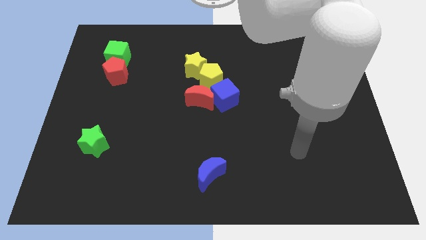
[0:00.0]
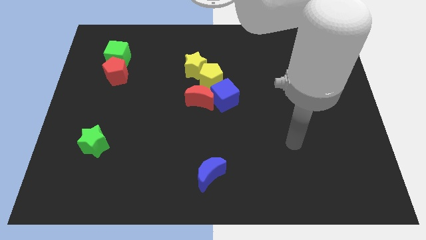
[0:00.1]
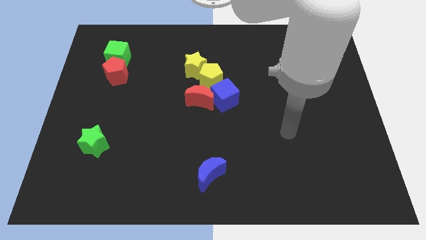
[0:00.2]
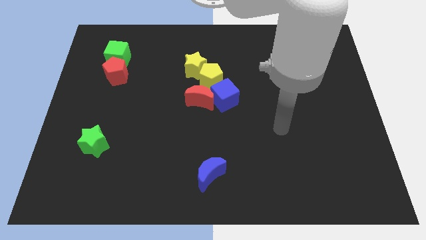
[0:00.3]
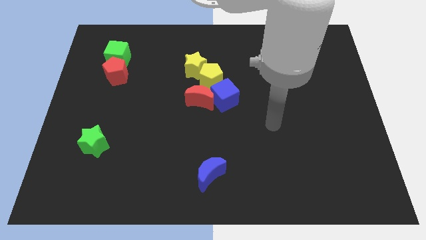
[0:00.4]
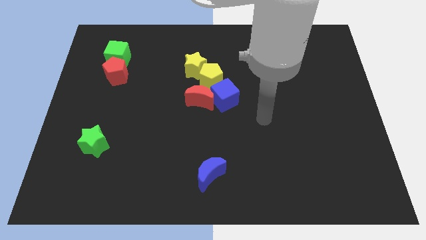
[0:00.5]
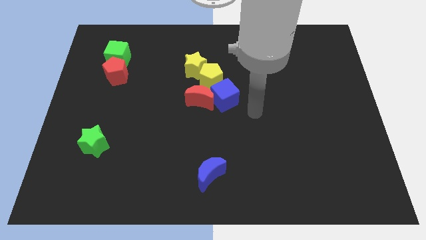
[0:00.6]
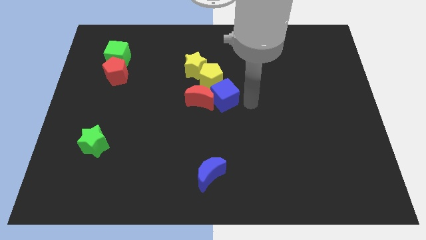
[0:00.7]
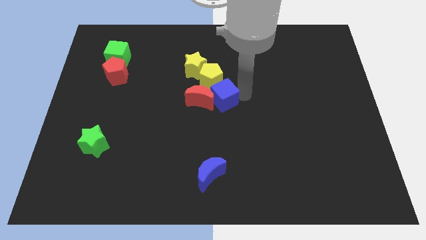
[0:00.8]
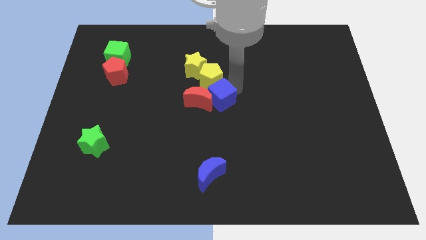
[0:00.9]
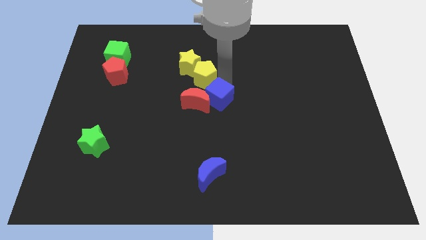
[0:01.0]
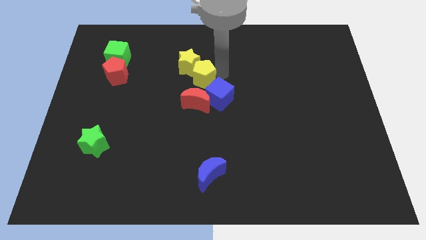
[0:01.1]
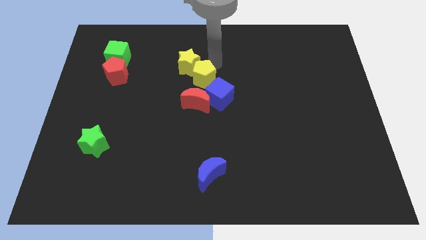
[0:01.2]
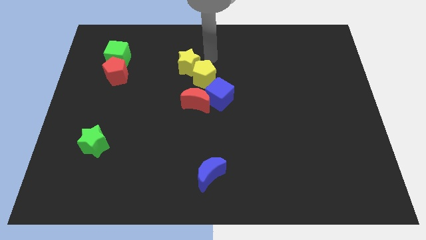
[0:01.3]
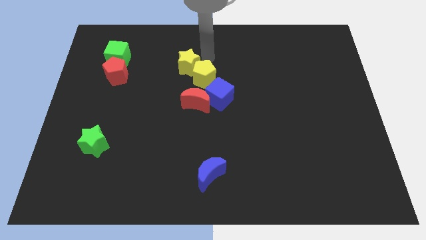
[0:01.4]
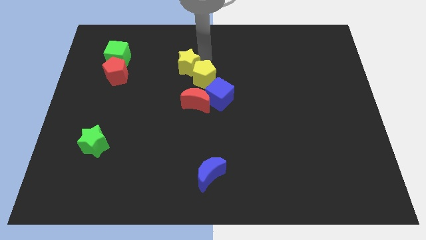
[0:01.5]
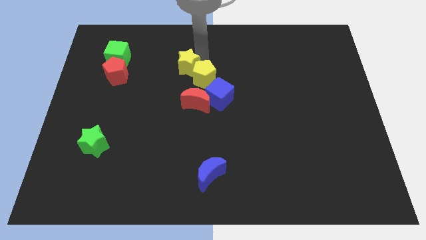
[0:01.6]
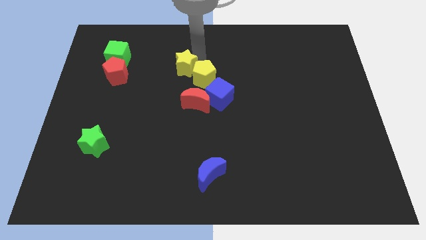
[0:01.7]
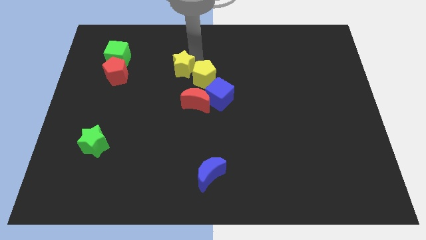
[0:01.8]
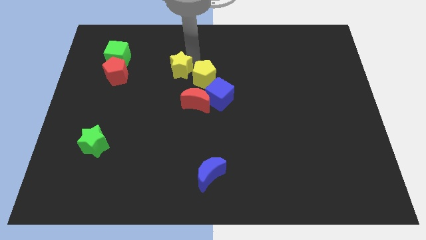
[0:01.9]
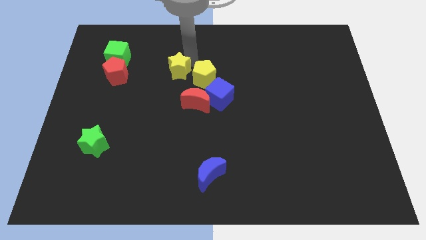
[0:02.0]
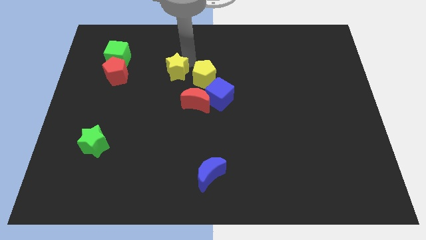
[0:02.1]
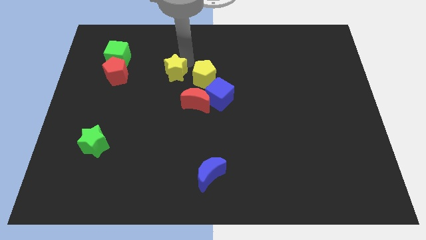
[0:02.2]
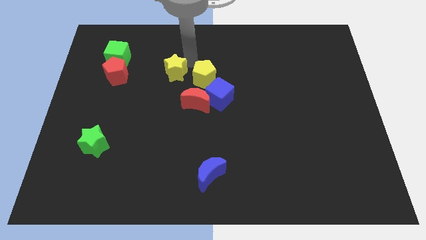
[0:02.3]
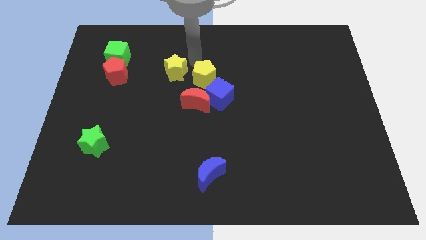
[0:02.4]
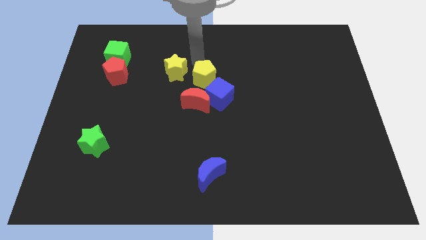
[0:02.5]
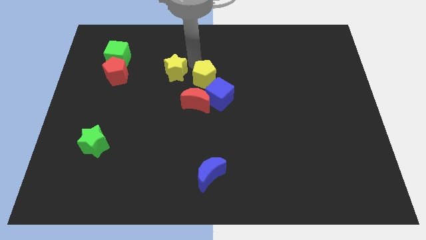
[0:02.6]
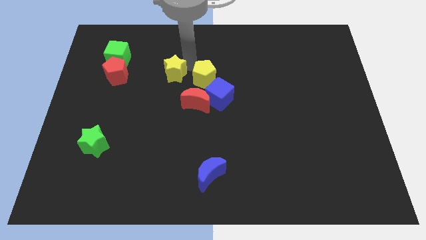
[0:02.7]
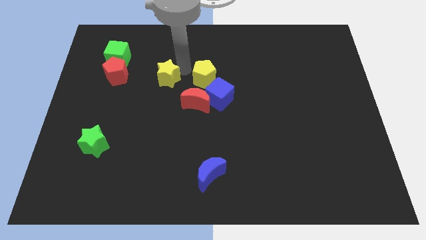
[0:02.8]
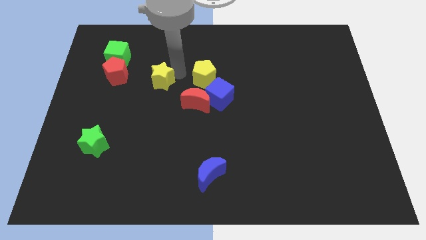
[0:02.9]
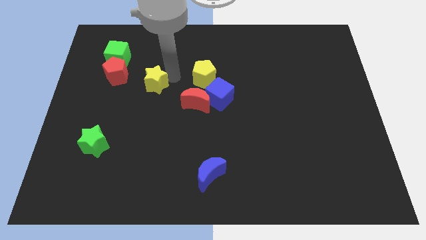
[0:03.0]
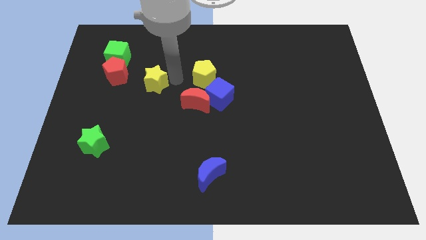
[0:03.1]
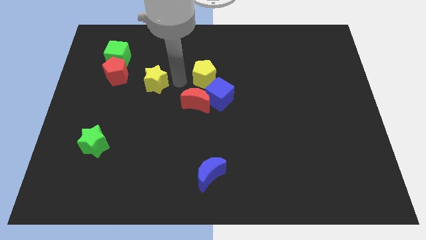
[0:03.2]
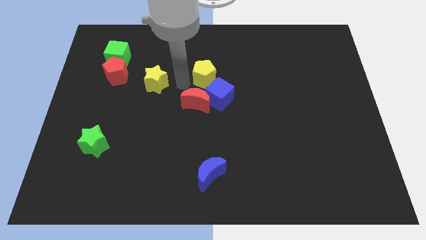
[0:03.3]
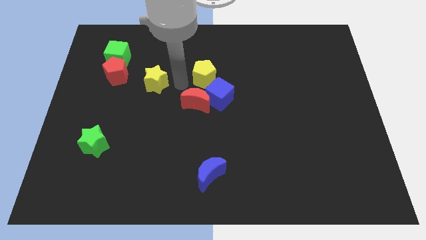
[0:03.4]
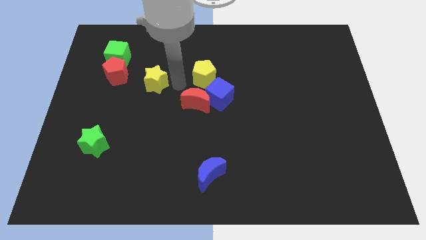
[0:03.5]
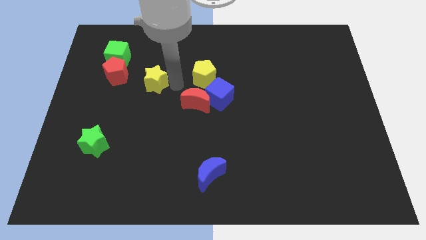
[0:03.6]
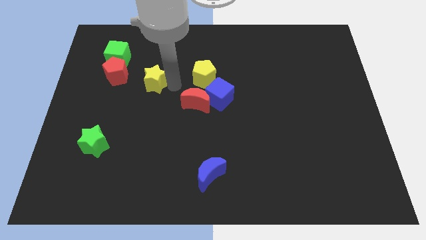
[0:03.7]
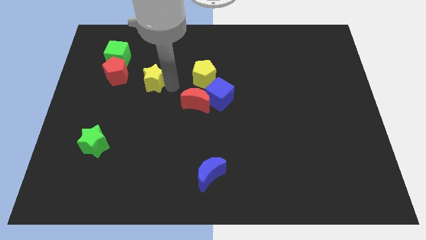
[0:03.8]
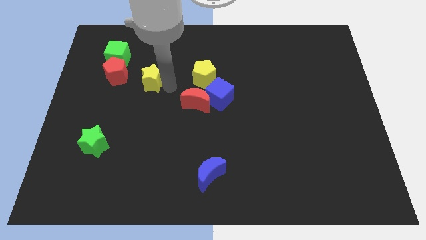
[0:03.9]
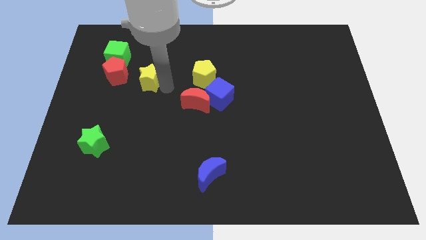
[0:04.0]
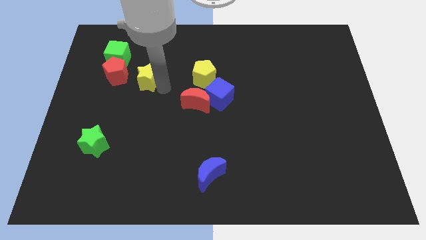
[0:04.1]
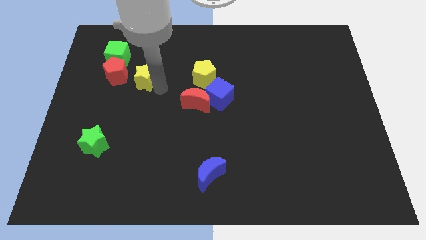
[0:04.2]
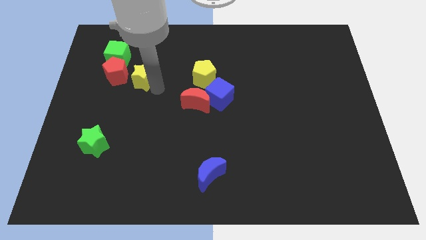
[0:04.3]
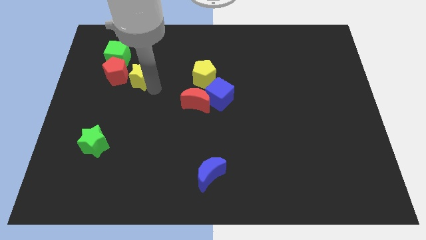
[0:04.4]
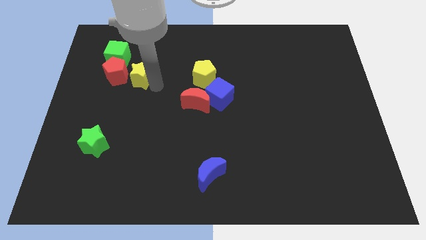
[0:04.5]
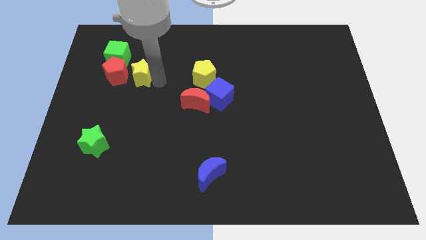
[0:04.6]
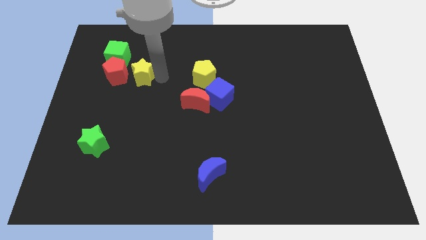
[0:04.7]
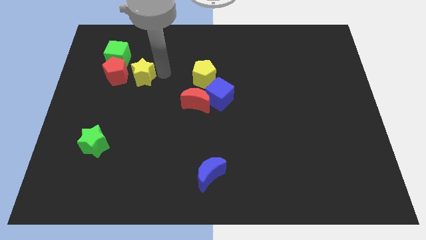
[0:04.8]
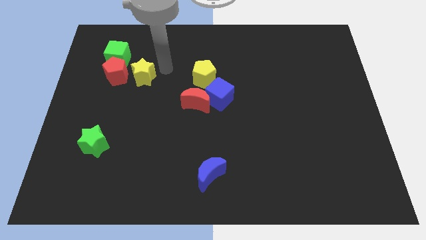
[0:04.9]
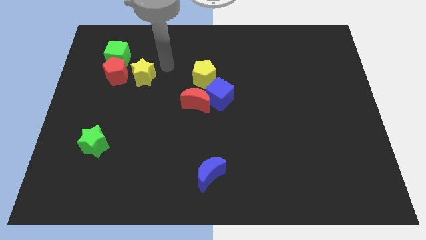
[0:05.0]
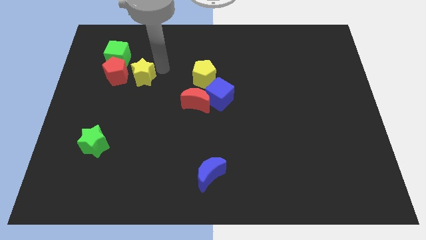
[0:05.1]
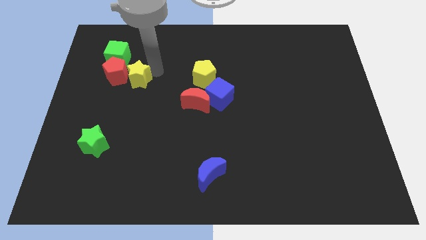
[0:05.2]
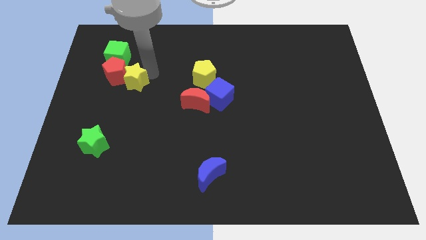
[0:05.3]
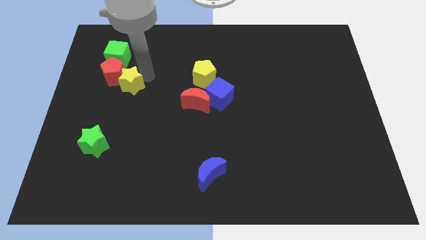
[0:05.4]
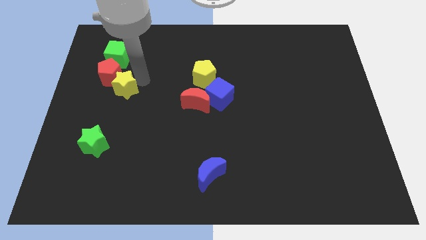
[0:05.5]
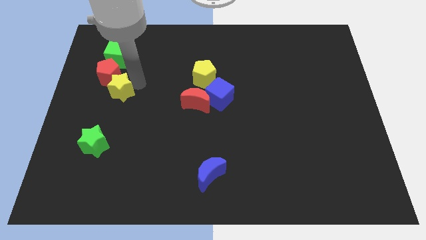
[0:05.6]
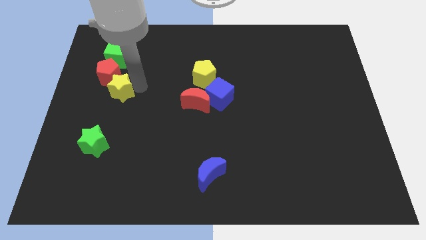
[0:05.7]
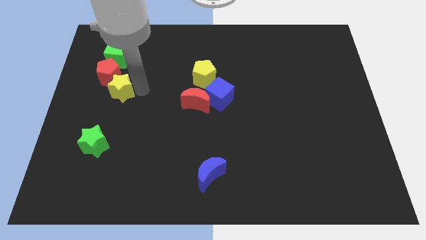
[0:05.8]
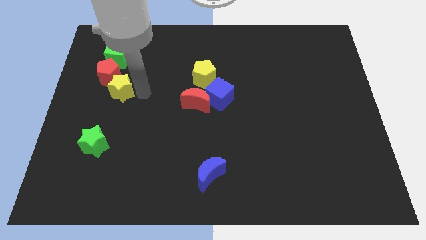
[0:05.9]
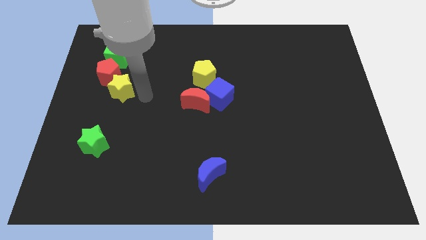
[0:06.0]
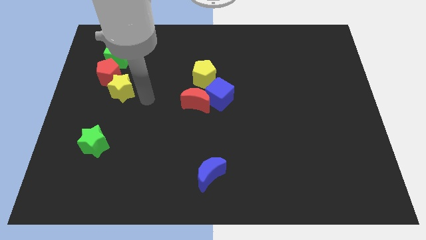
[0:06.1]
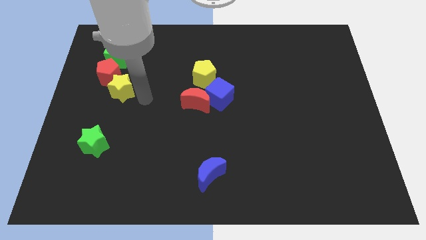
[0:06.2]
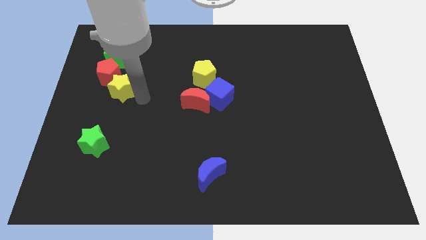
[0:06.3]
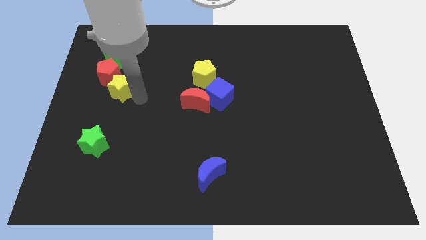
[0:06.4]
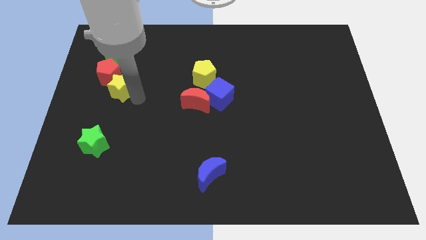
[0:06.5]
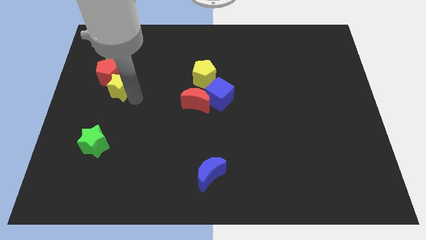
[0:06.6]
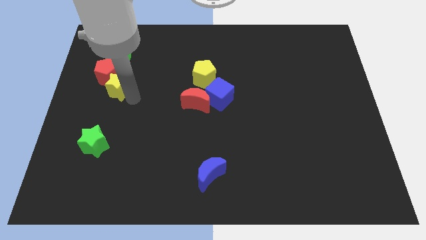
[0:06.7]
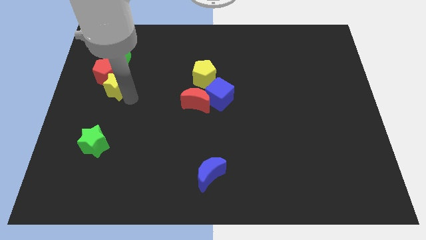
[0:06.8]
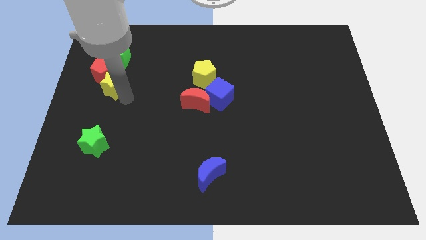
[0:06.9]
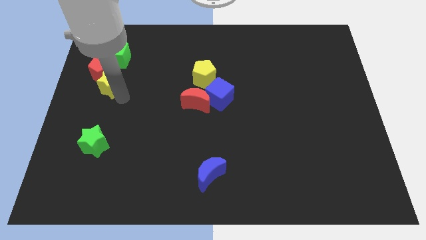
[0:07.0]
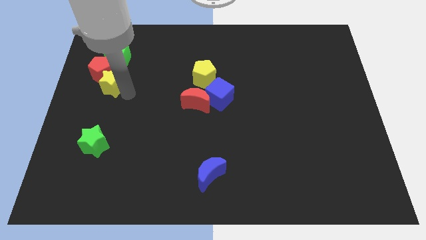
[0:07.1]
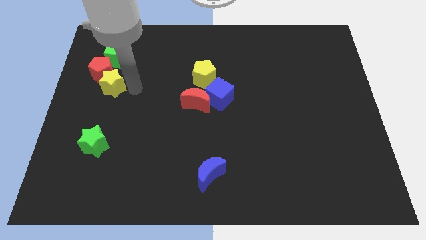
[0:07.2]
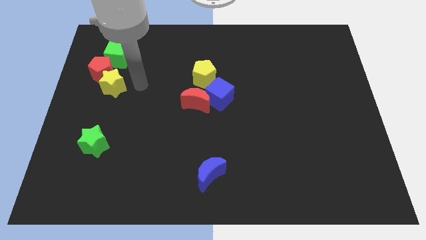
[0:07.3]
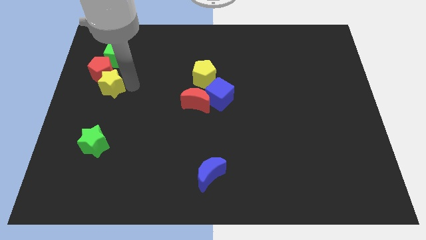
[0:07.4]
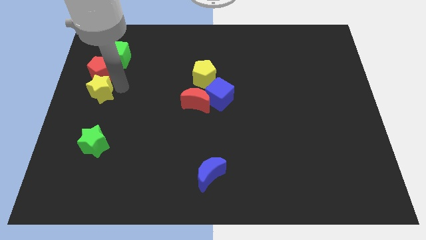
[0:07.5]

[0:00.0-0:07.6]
slide the yellow star to the left side of the board
